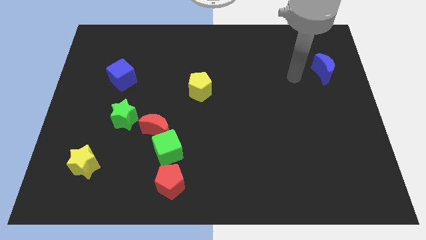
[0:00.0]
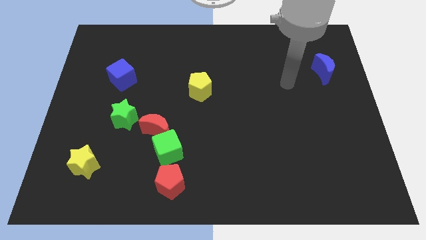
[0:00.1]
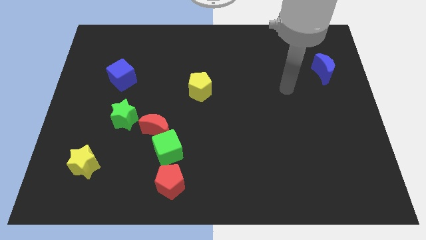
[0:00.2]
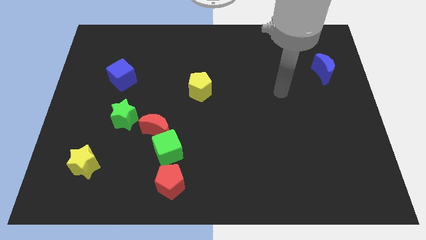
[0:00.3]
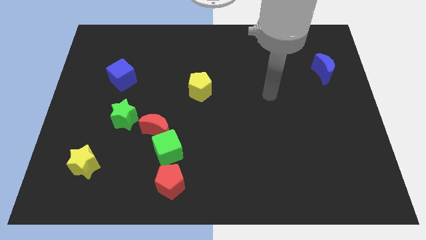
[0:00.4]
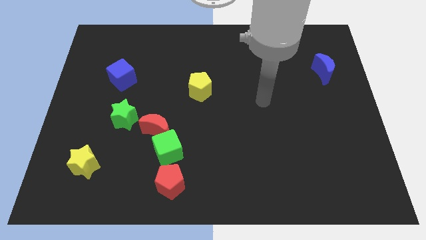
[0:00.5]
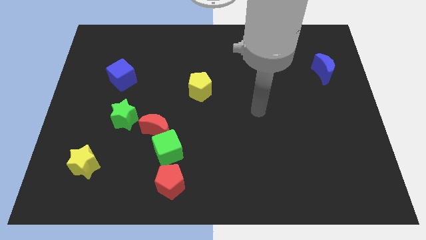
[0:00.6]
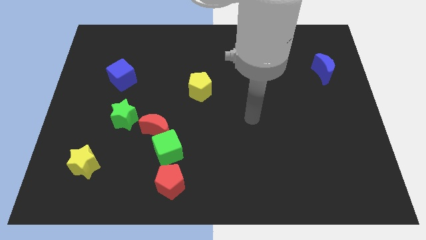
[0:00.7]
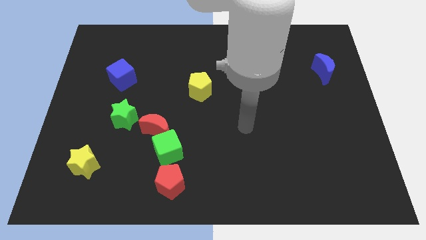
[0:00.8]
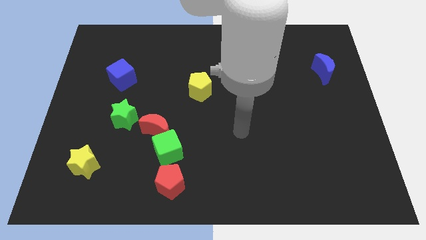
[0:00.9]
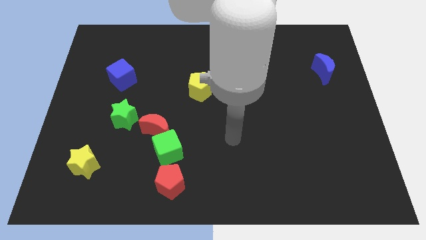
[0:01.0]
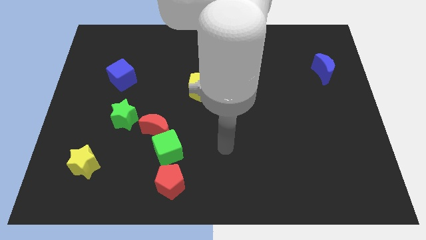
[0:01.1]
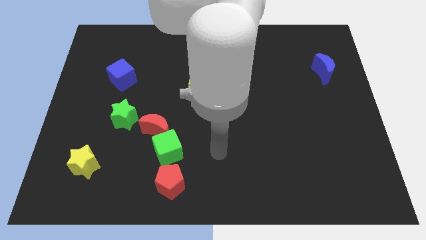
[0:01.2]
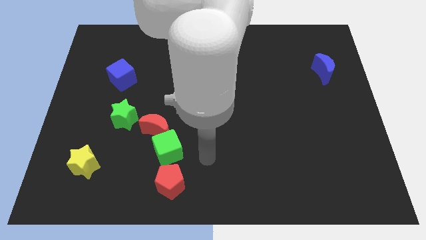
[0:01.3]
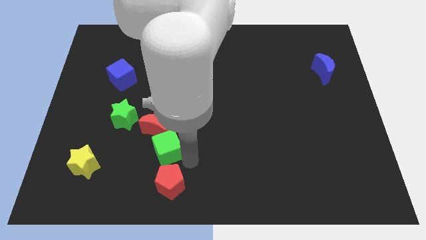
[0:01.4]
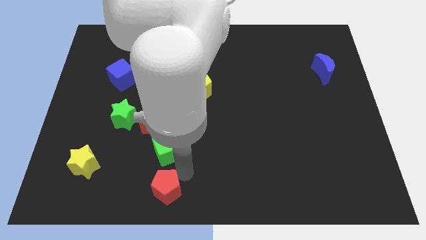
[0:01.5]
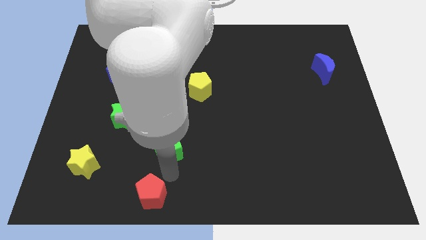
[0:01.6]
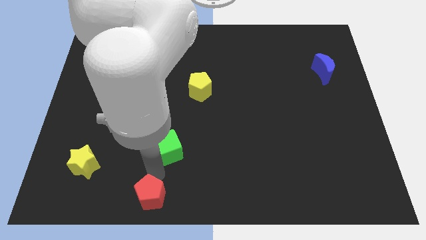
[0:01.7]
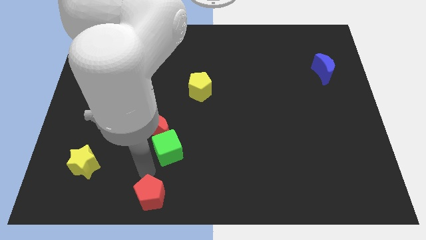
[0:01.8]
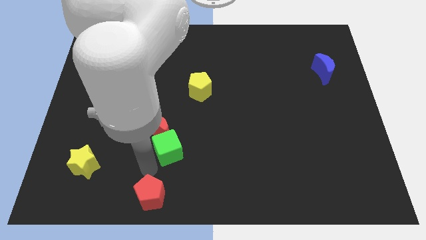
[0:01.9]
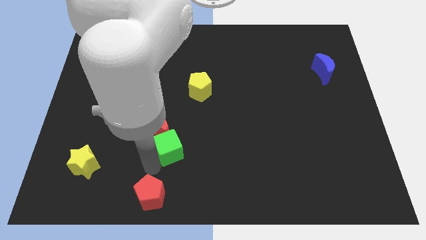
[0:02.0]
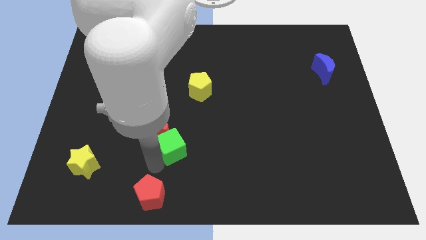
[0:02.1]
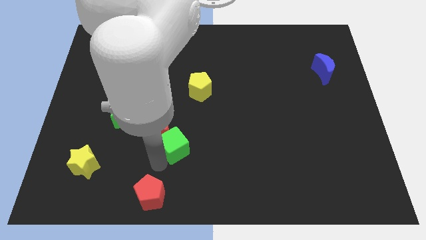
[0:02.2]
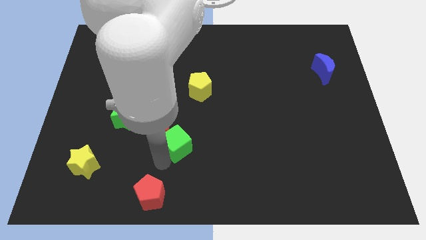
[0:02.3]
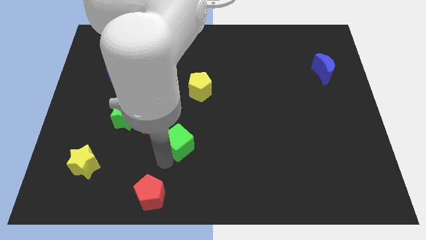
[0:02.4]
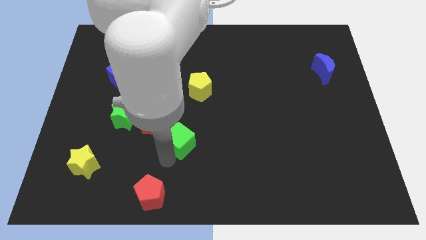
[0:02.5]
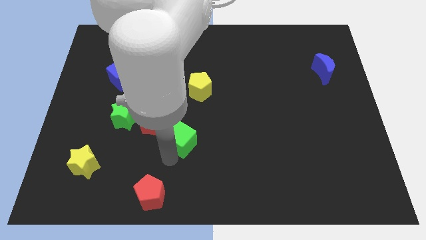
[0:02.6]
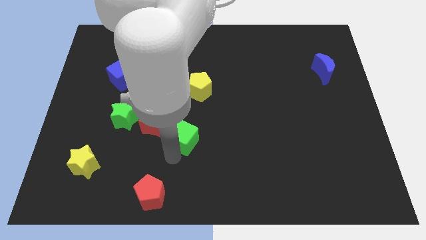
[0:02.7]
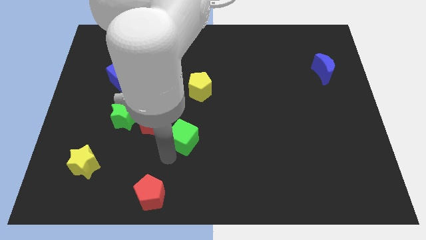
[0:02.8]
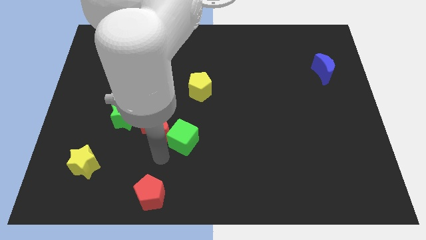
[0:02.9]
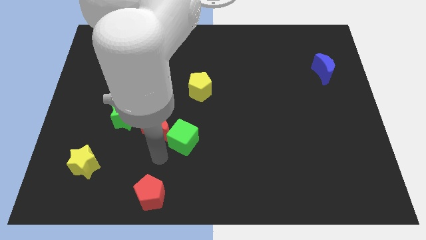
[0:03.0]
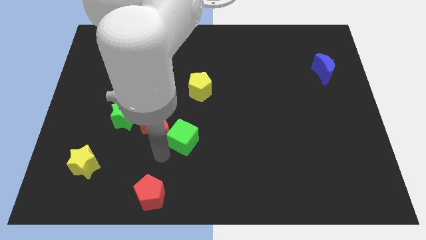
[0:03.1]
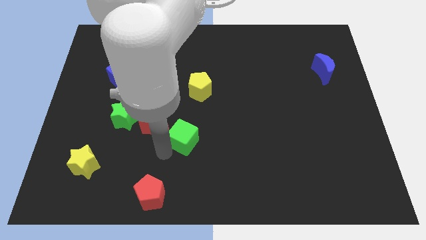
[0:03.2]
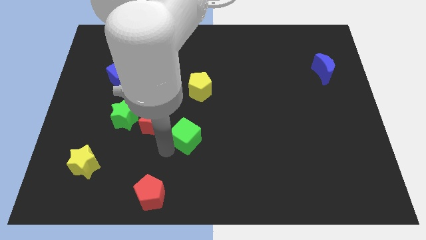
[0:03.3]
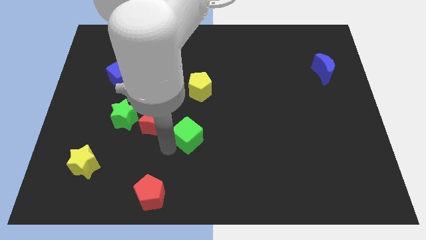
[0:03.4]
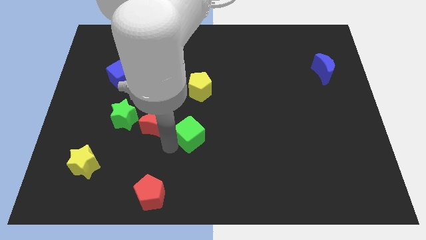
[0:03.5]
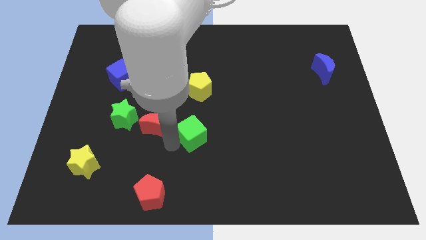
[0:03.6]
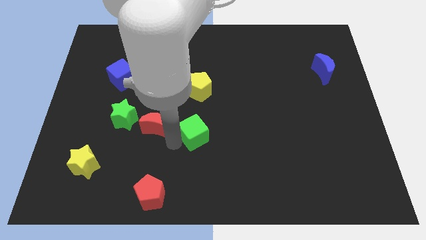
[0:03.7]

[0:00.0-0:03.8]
separate the green cube from the red moon and red pentagon

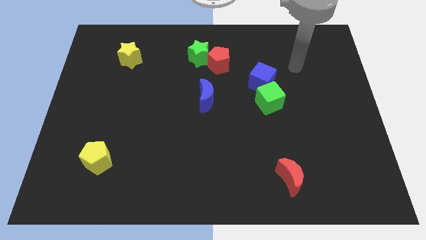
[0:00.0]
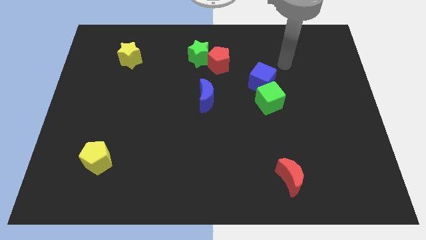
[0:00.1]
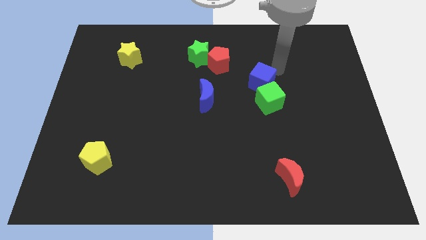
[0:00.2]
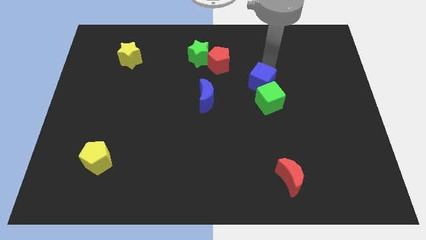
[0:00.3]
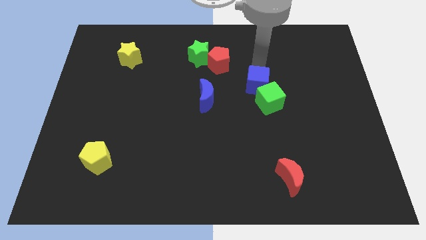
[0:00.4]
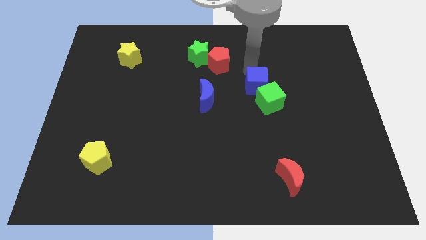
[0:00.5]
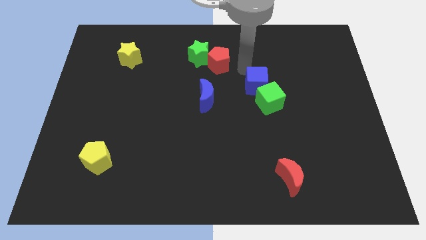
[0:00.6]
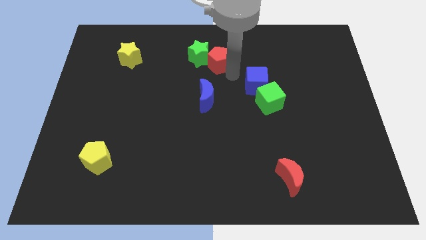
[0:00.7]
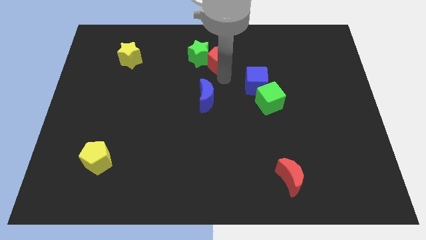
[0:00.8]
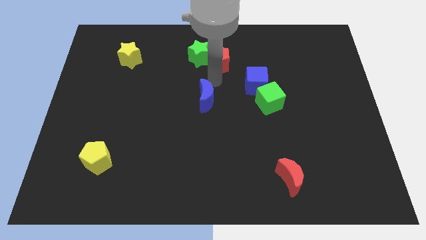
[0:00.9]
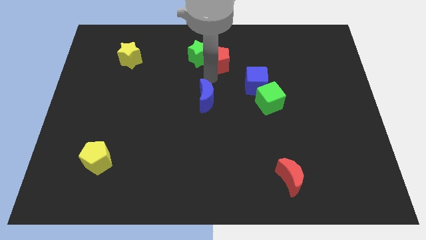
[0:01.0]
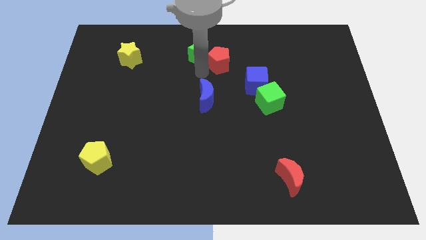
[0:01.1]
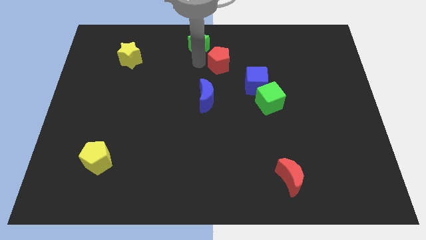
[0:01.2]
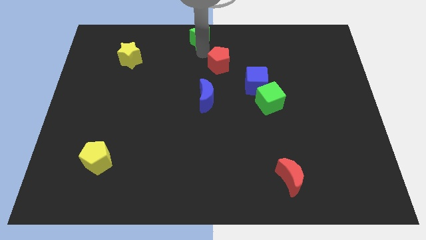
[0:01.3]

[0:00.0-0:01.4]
move the red pentagon away from the green star

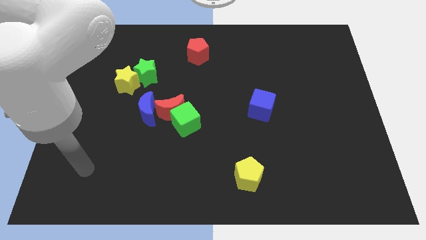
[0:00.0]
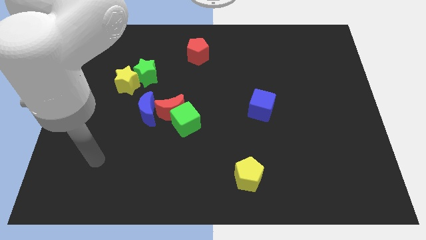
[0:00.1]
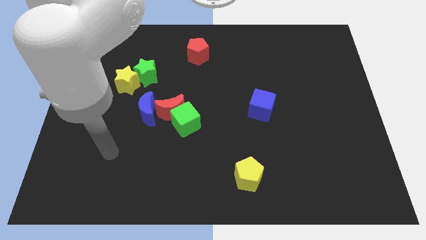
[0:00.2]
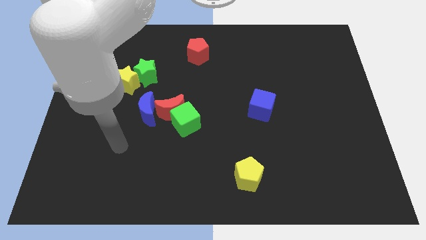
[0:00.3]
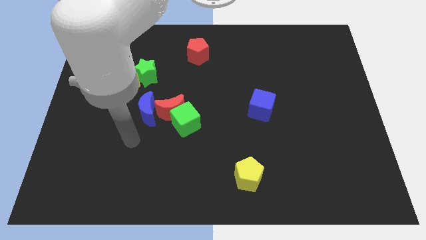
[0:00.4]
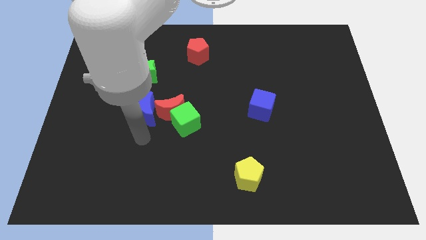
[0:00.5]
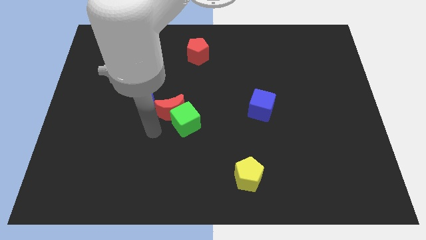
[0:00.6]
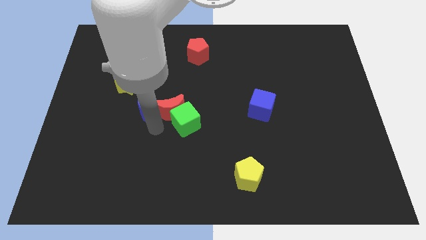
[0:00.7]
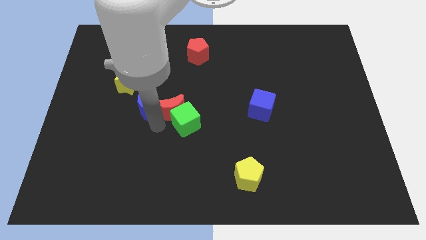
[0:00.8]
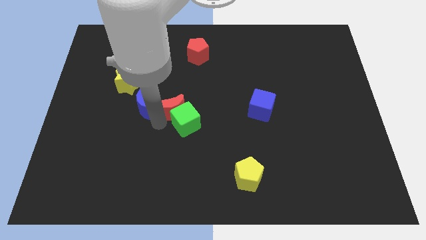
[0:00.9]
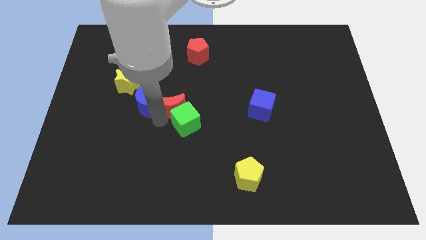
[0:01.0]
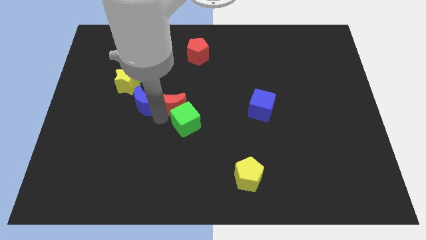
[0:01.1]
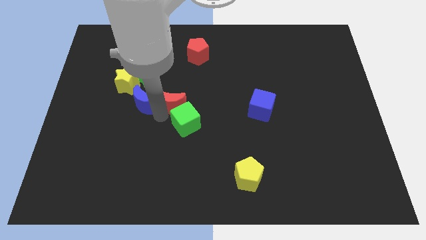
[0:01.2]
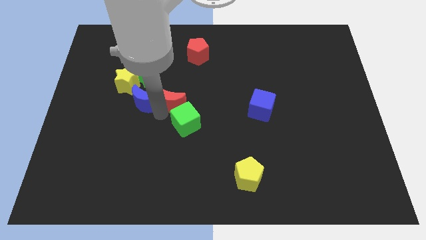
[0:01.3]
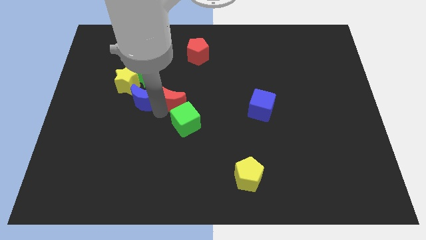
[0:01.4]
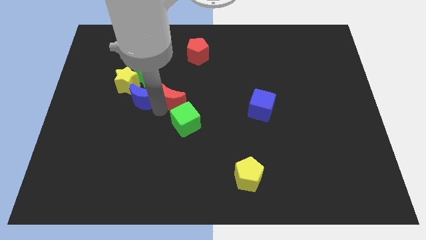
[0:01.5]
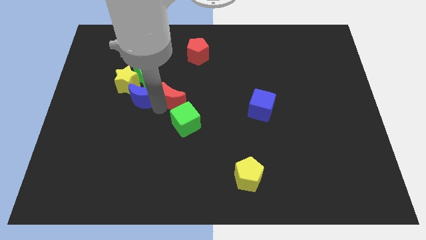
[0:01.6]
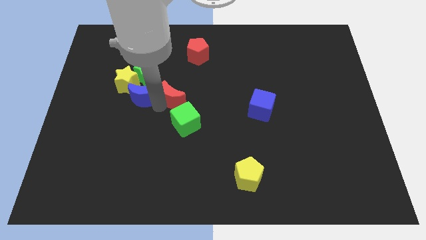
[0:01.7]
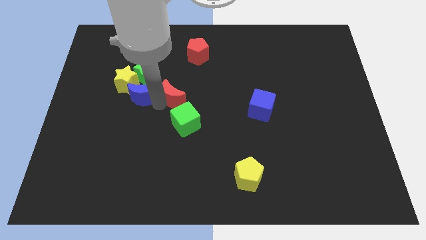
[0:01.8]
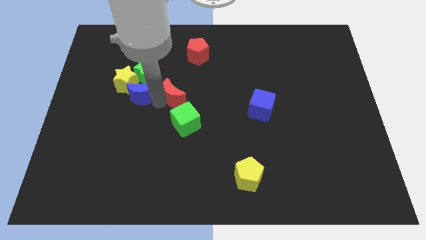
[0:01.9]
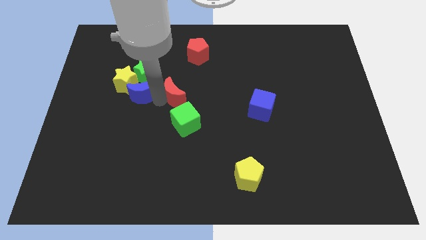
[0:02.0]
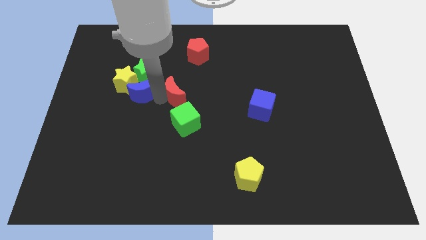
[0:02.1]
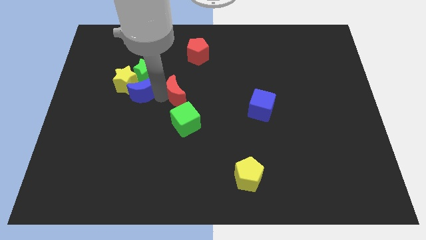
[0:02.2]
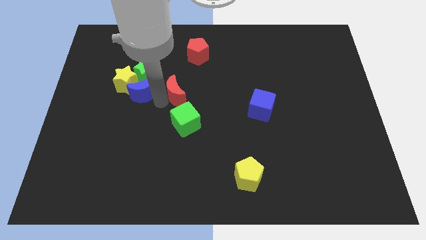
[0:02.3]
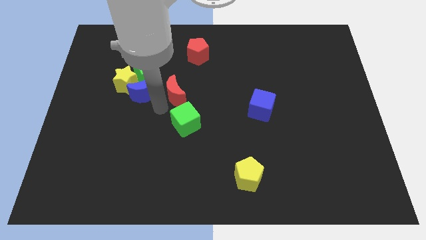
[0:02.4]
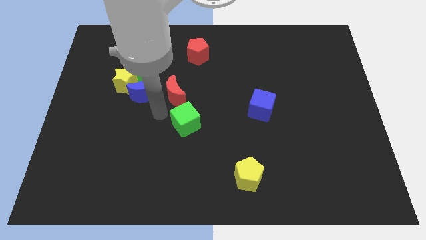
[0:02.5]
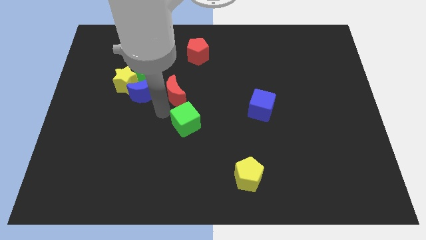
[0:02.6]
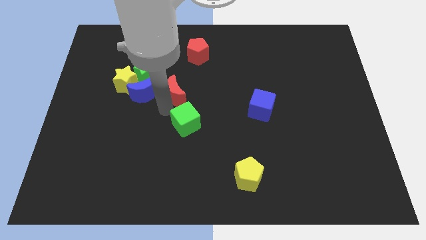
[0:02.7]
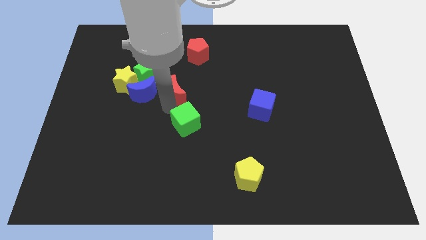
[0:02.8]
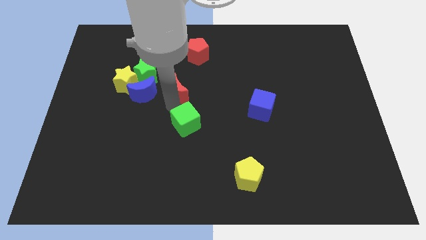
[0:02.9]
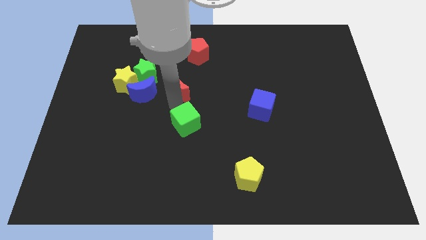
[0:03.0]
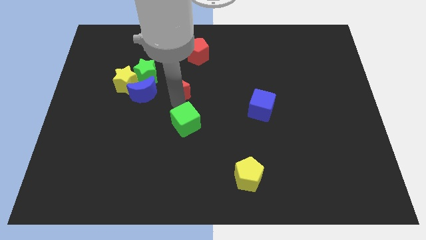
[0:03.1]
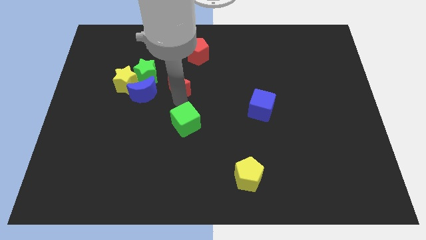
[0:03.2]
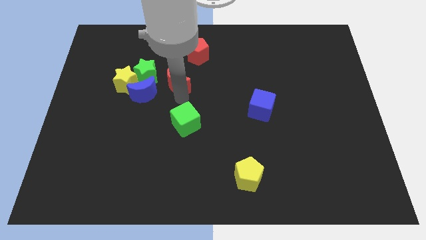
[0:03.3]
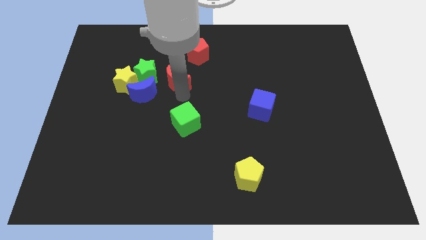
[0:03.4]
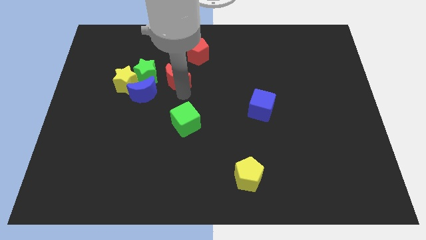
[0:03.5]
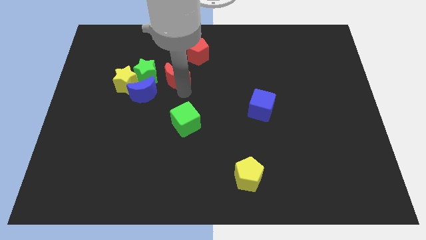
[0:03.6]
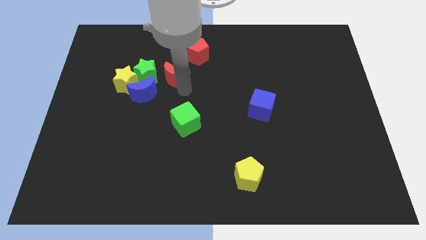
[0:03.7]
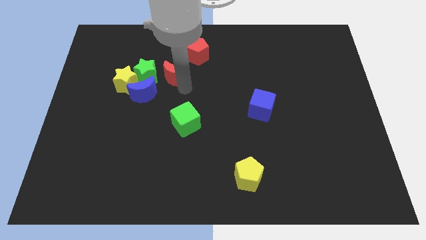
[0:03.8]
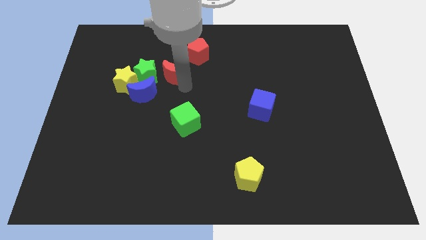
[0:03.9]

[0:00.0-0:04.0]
separate the red moon from the green cube and blue moon

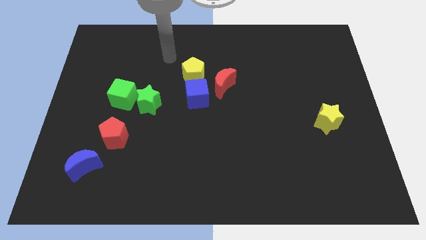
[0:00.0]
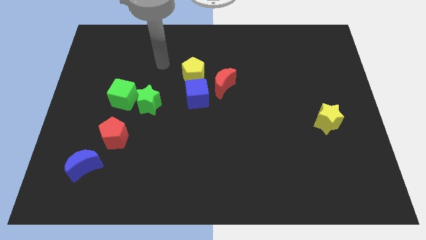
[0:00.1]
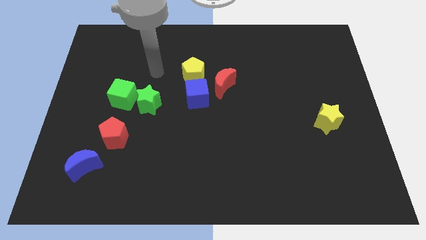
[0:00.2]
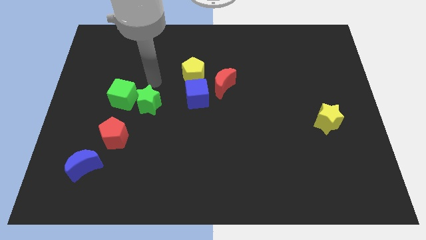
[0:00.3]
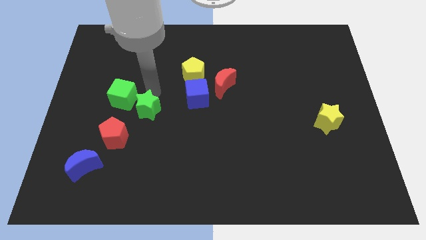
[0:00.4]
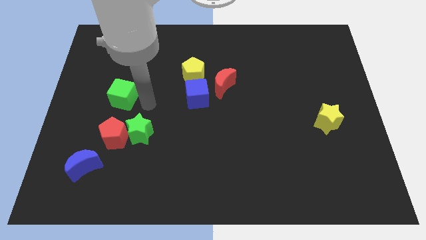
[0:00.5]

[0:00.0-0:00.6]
pull the green cube apart from the green star
